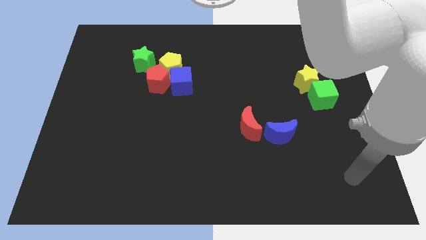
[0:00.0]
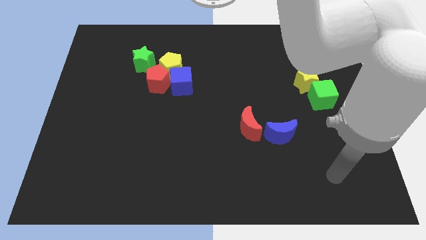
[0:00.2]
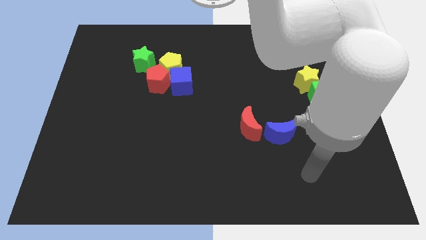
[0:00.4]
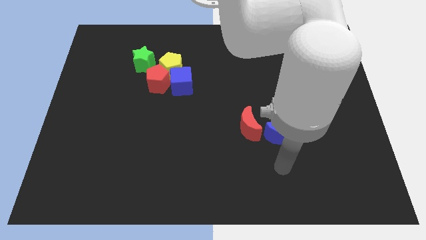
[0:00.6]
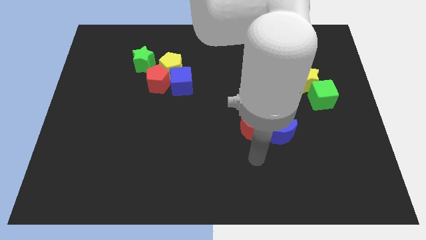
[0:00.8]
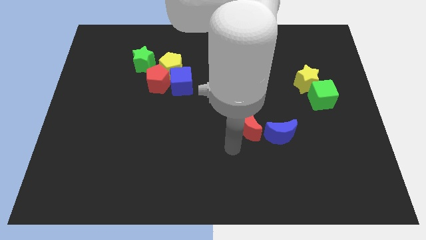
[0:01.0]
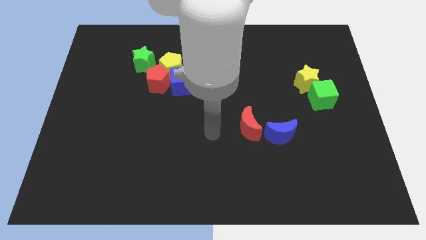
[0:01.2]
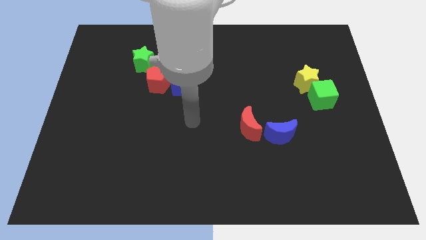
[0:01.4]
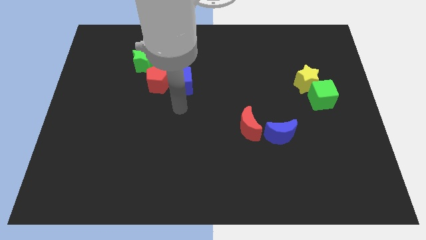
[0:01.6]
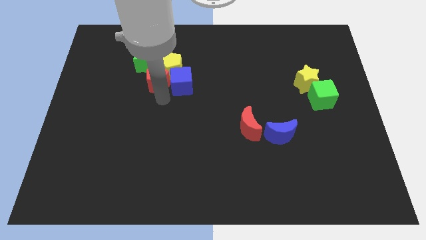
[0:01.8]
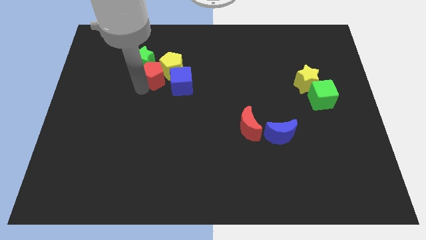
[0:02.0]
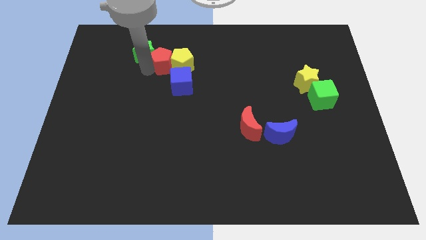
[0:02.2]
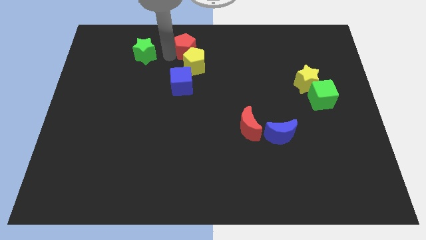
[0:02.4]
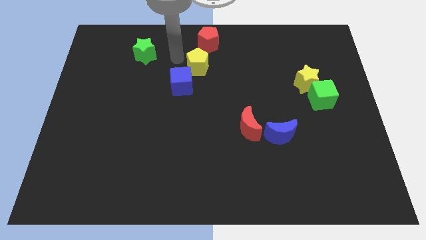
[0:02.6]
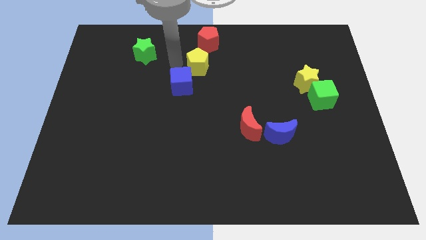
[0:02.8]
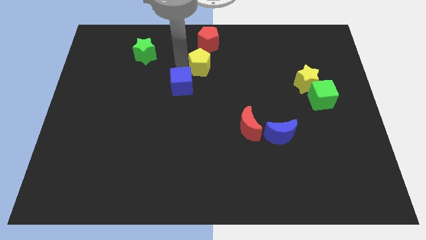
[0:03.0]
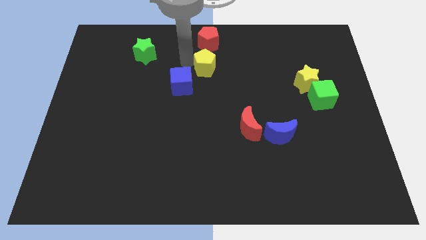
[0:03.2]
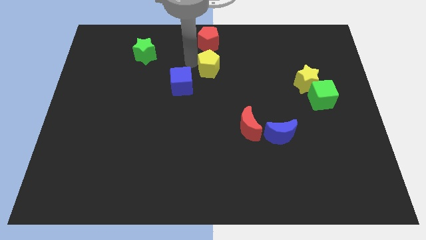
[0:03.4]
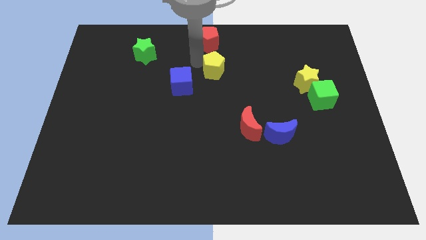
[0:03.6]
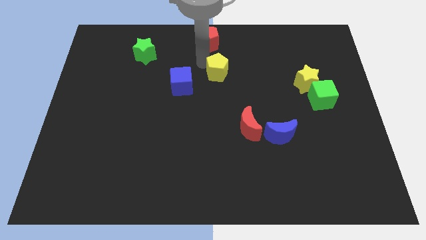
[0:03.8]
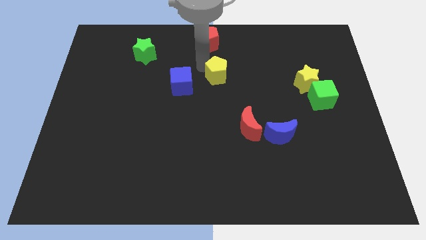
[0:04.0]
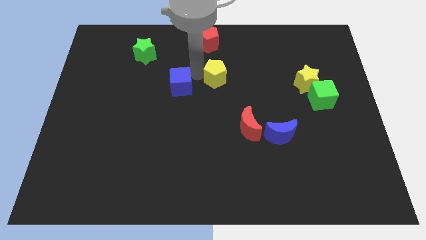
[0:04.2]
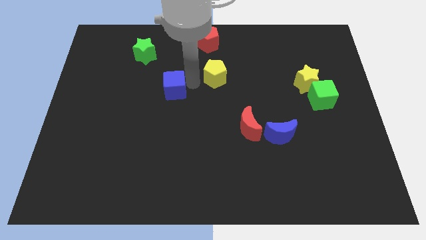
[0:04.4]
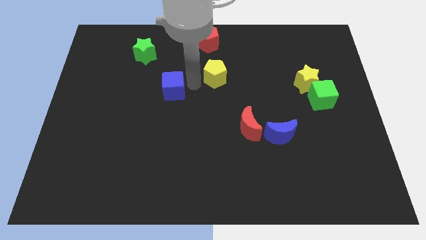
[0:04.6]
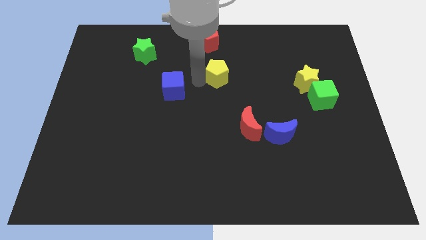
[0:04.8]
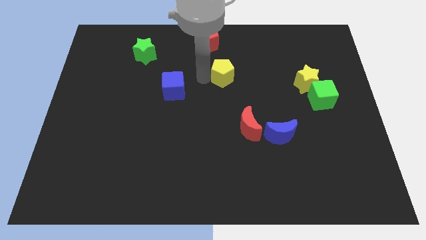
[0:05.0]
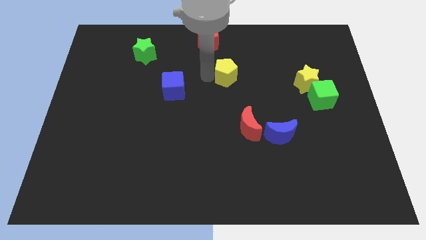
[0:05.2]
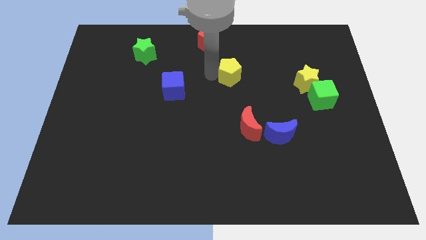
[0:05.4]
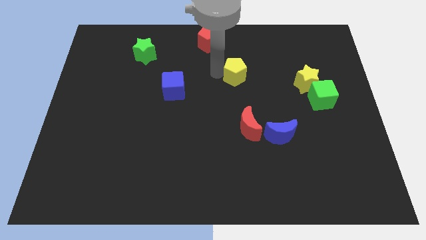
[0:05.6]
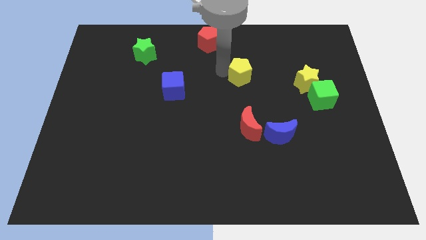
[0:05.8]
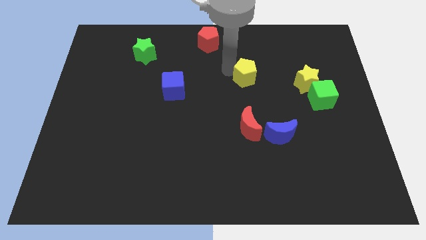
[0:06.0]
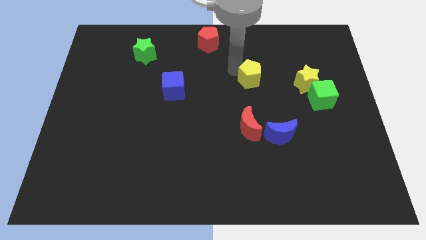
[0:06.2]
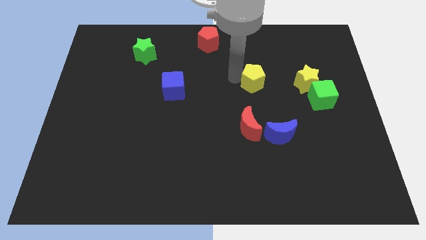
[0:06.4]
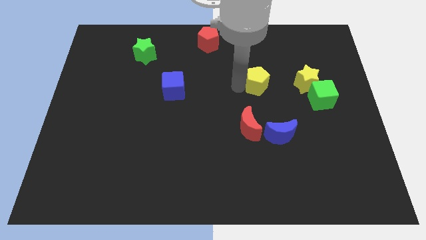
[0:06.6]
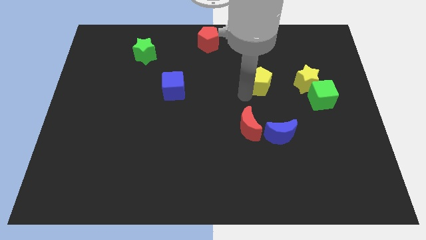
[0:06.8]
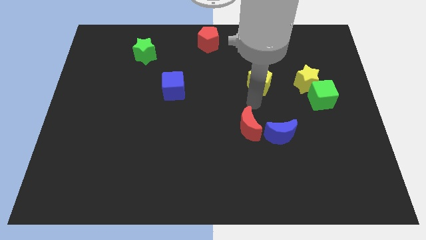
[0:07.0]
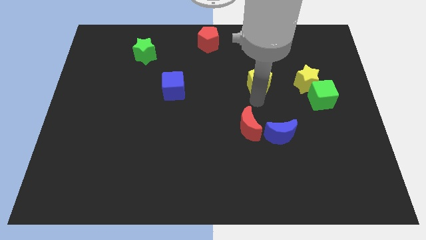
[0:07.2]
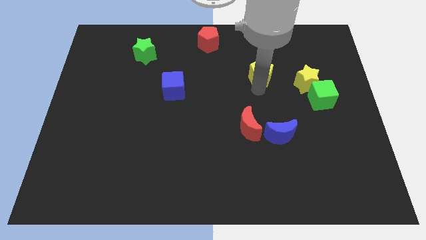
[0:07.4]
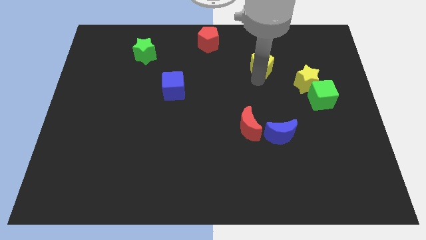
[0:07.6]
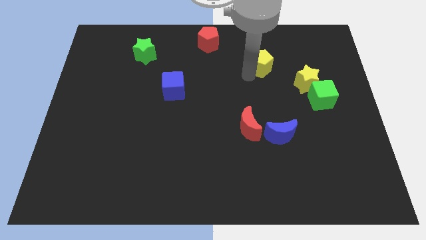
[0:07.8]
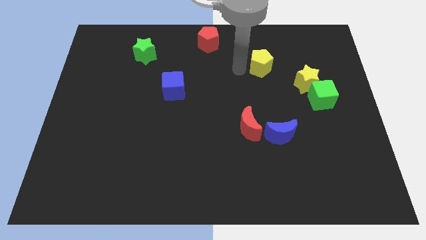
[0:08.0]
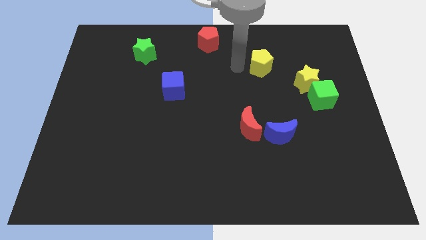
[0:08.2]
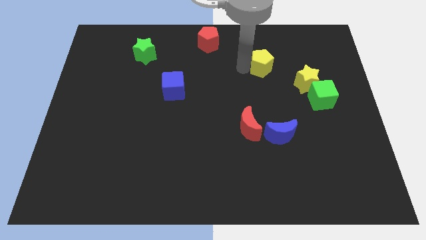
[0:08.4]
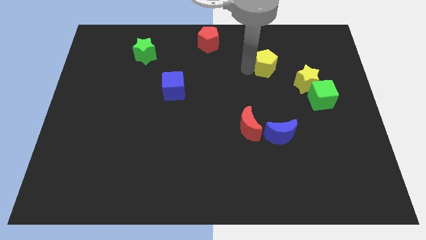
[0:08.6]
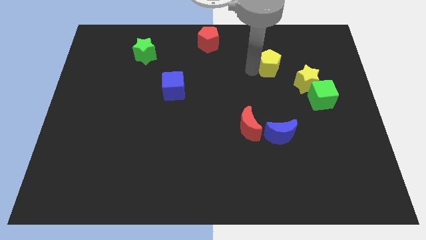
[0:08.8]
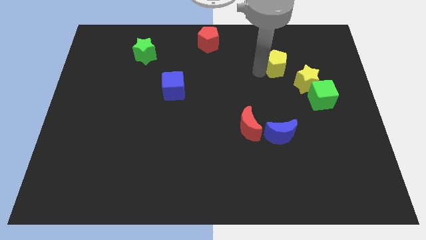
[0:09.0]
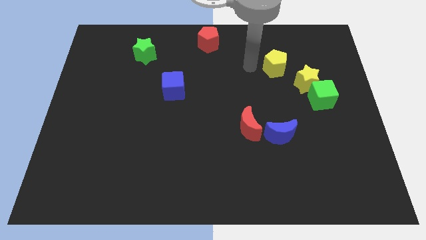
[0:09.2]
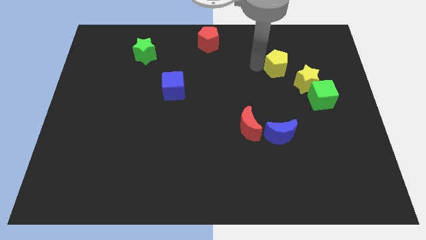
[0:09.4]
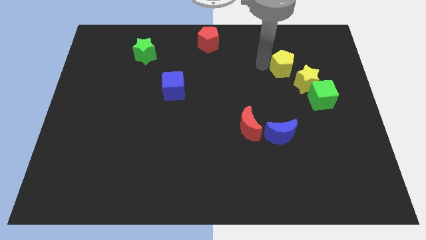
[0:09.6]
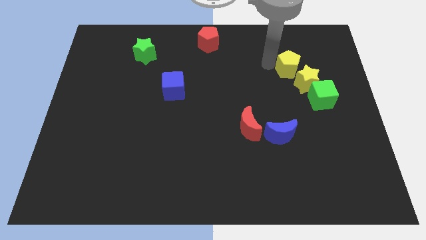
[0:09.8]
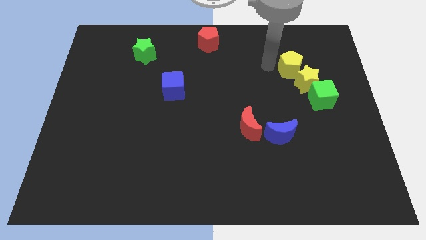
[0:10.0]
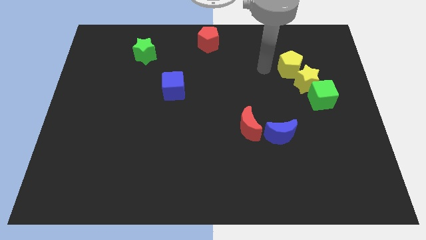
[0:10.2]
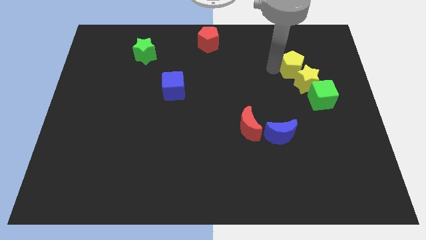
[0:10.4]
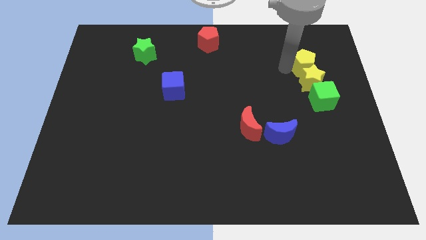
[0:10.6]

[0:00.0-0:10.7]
put the yellow pentagon diagonally up and to the right of the yellow star

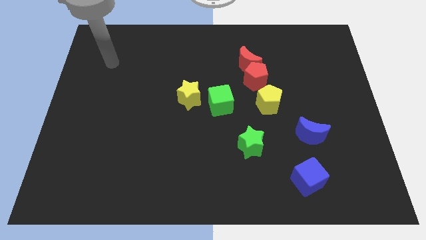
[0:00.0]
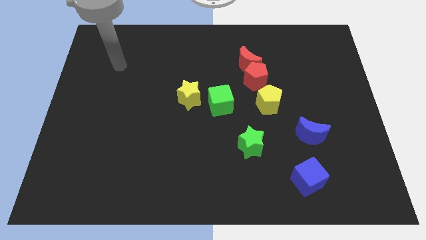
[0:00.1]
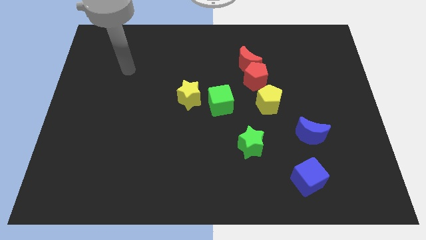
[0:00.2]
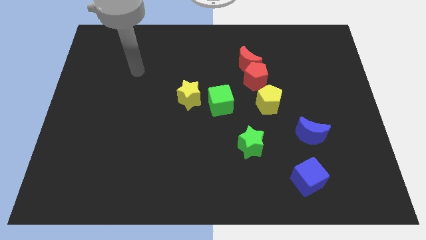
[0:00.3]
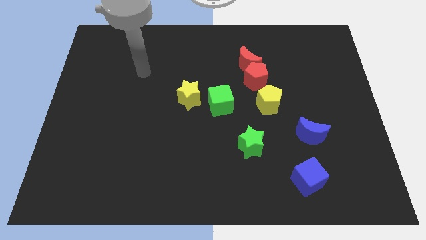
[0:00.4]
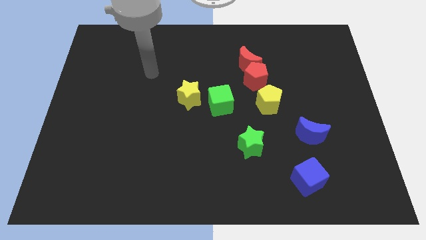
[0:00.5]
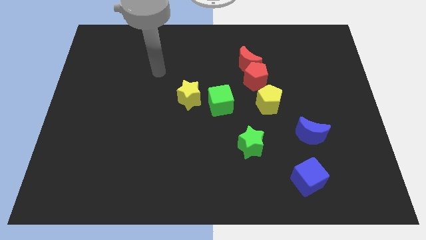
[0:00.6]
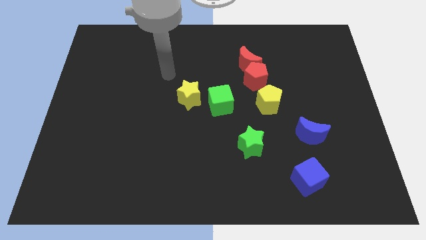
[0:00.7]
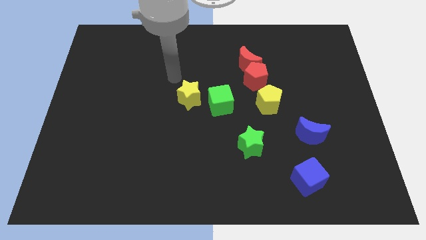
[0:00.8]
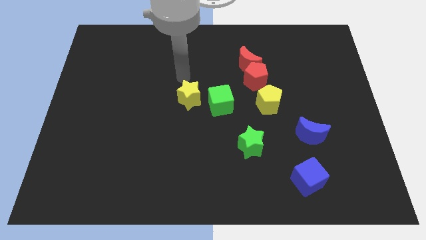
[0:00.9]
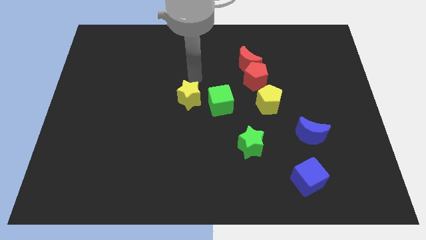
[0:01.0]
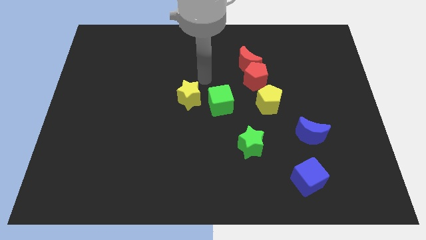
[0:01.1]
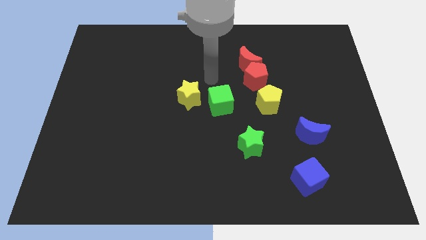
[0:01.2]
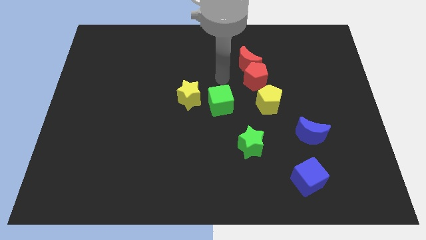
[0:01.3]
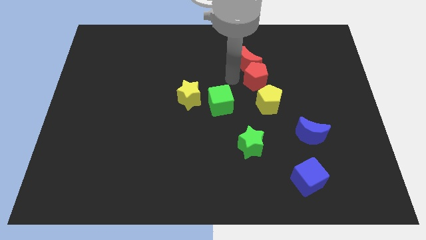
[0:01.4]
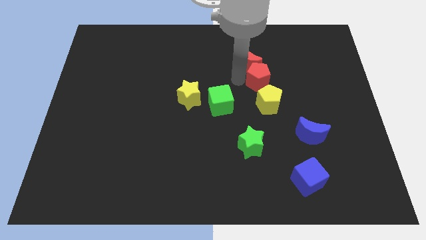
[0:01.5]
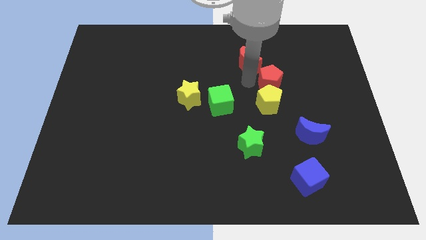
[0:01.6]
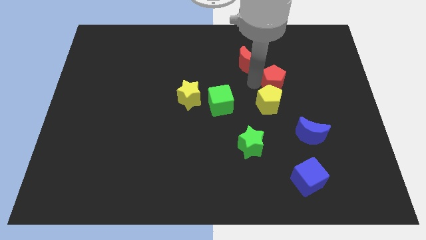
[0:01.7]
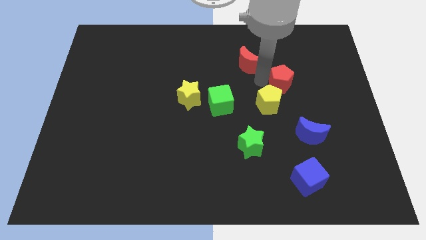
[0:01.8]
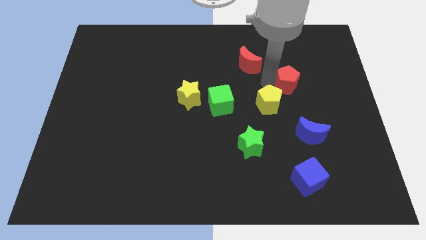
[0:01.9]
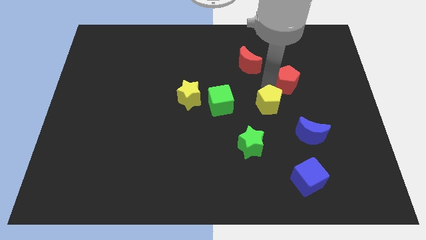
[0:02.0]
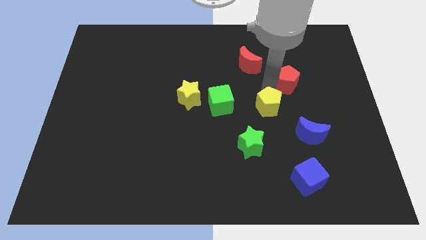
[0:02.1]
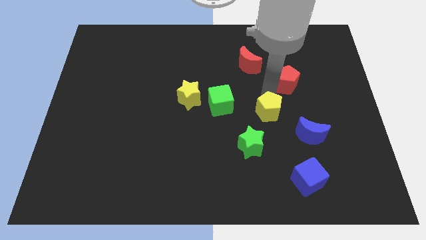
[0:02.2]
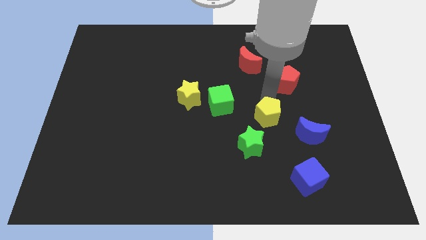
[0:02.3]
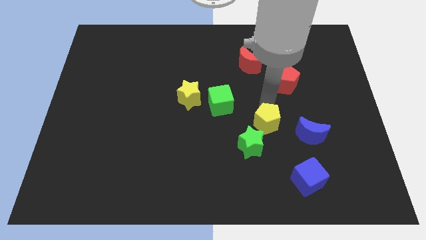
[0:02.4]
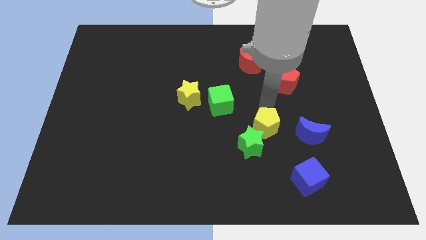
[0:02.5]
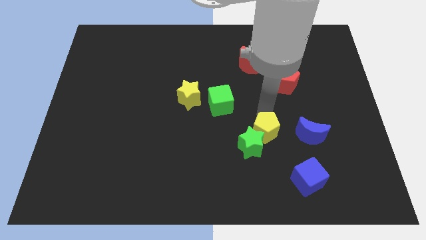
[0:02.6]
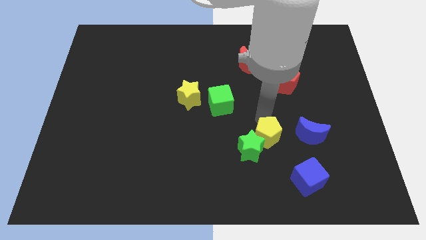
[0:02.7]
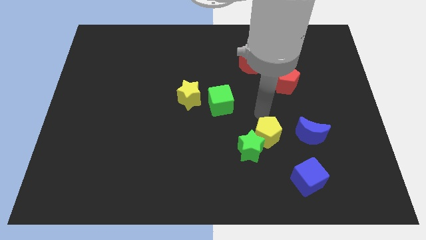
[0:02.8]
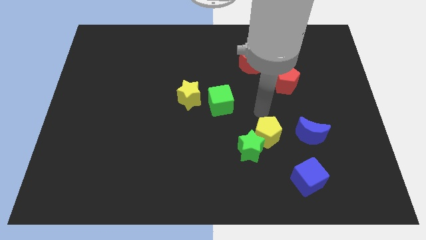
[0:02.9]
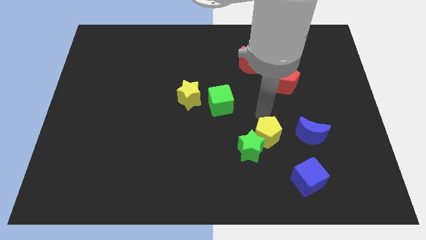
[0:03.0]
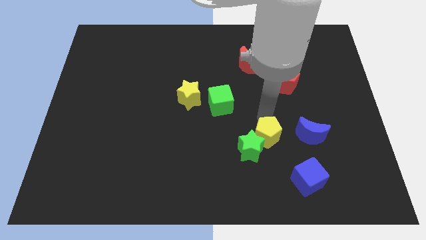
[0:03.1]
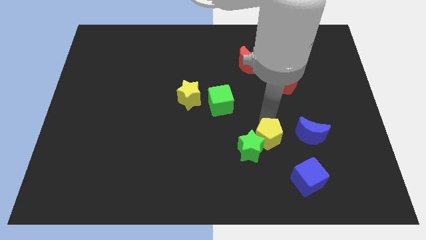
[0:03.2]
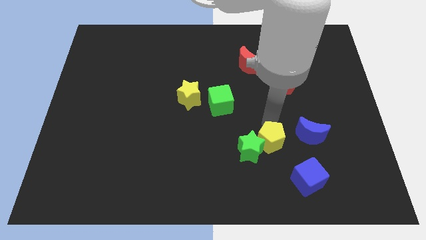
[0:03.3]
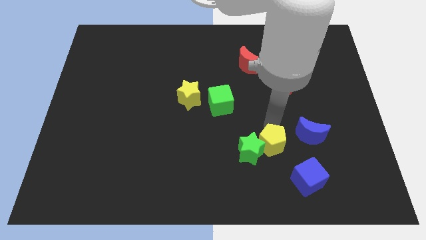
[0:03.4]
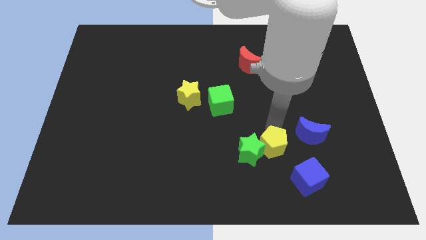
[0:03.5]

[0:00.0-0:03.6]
push the yellow pentagon diagonally down and to the right of the green star
